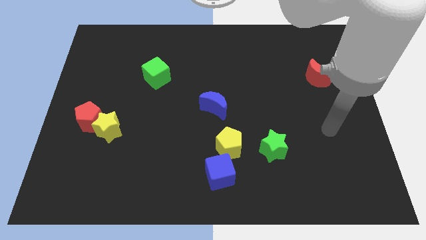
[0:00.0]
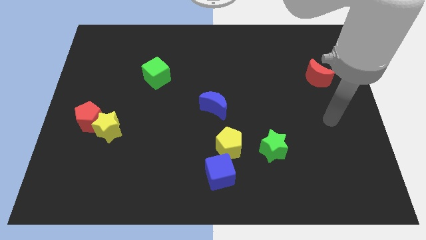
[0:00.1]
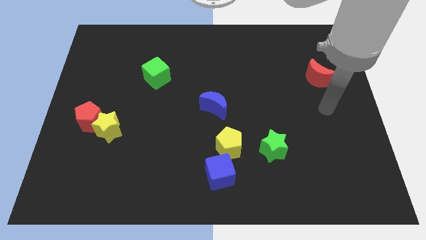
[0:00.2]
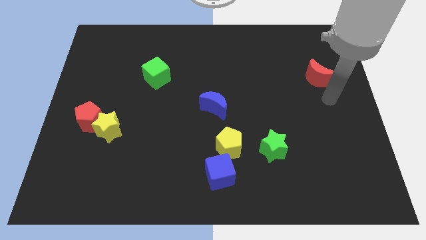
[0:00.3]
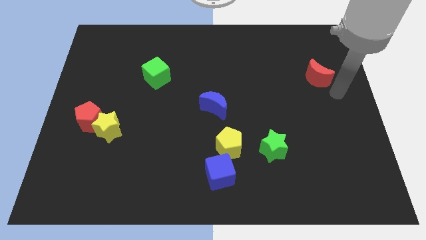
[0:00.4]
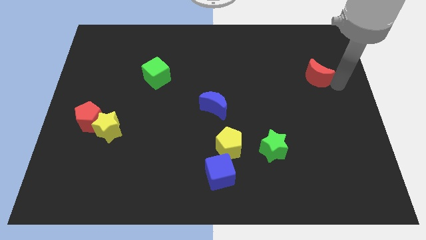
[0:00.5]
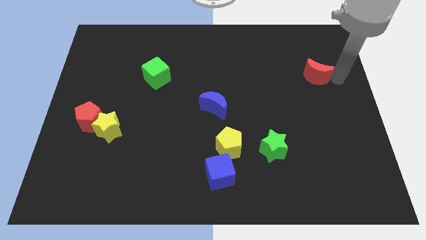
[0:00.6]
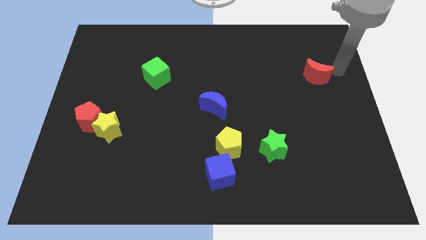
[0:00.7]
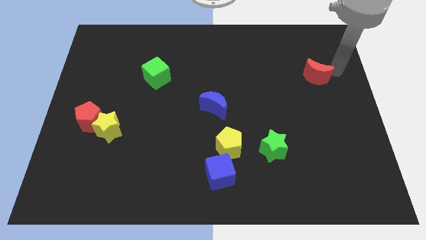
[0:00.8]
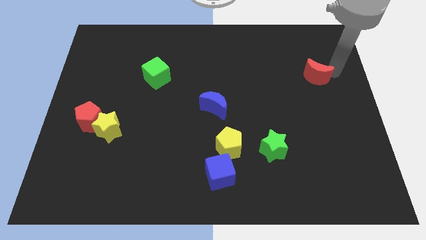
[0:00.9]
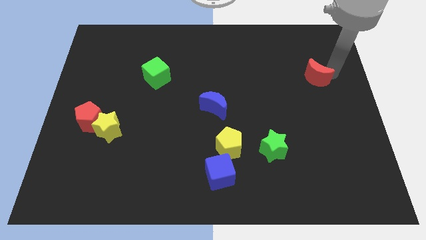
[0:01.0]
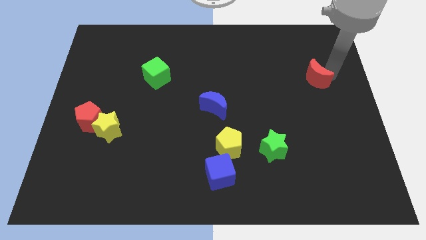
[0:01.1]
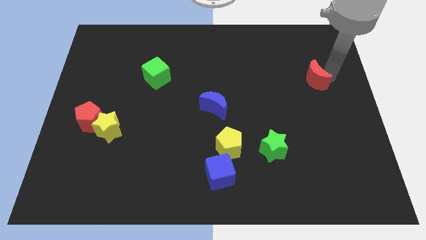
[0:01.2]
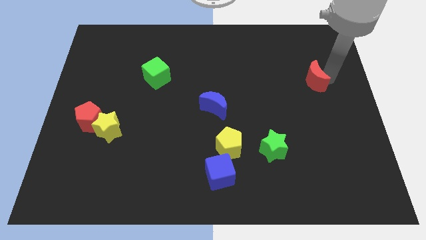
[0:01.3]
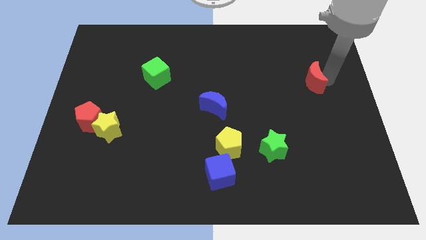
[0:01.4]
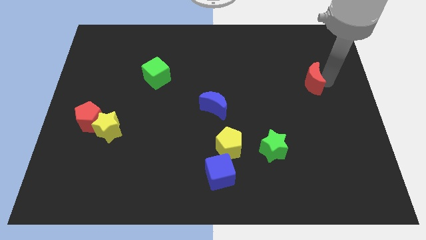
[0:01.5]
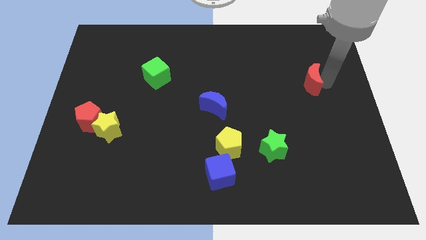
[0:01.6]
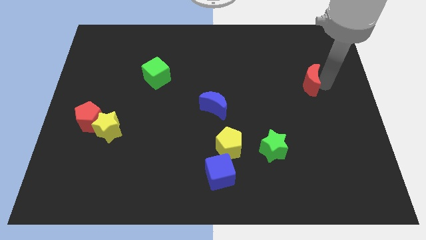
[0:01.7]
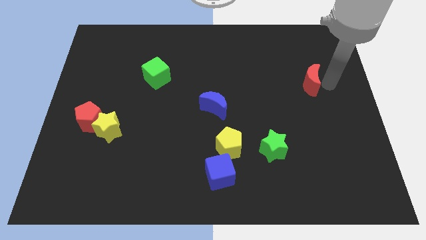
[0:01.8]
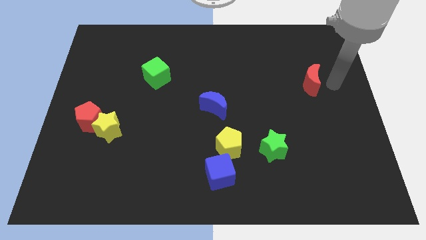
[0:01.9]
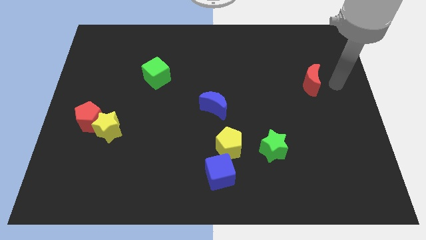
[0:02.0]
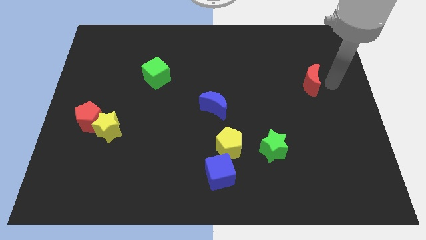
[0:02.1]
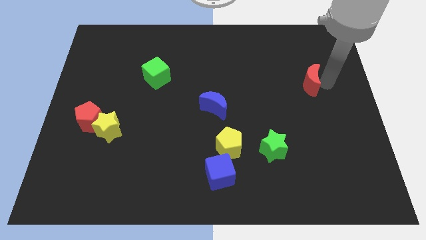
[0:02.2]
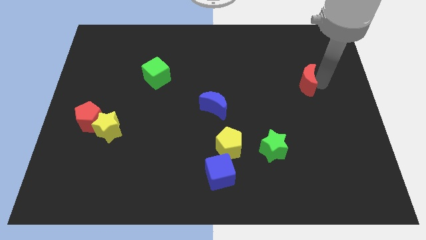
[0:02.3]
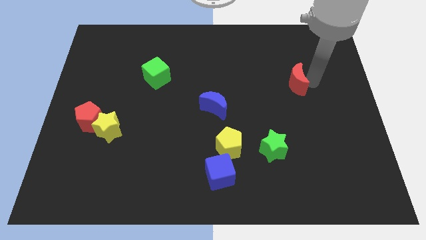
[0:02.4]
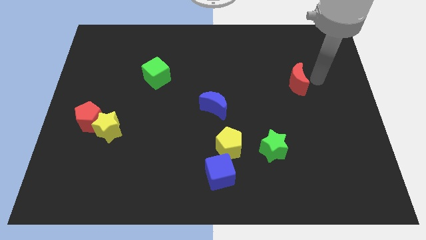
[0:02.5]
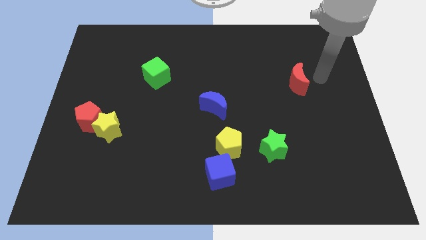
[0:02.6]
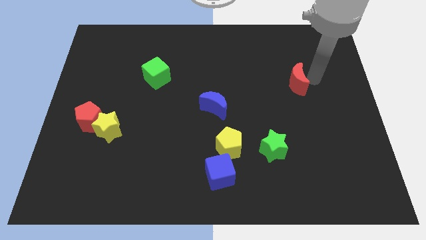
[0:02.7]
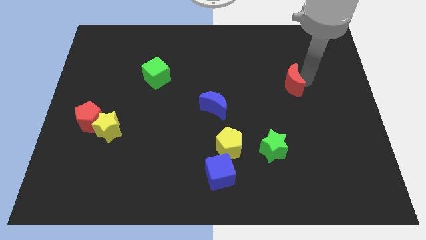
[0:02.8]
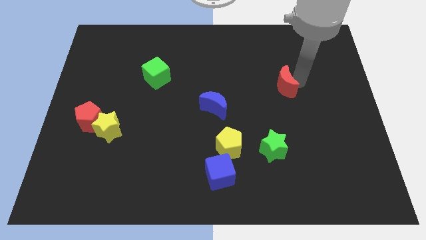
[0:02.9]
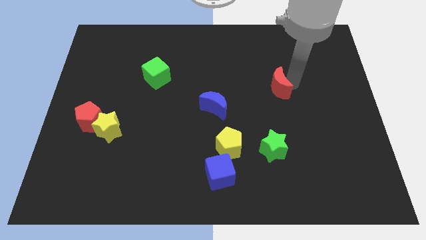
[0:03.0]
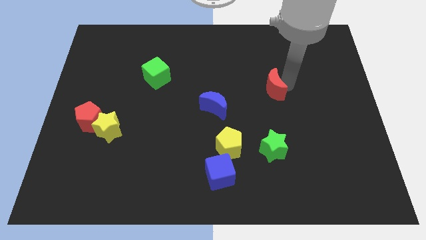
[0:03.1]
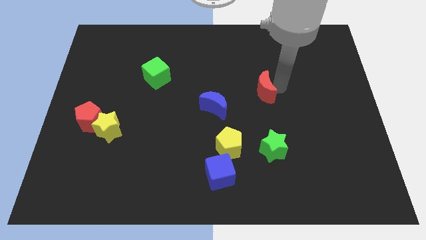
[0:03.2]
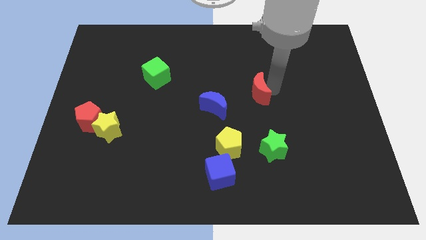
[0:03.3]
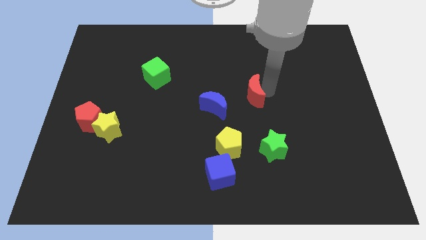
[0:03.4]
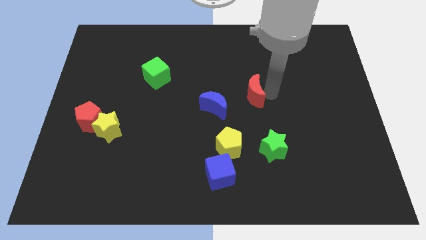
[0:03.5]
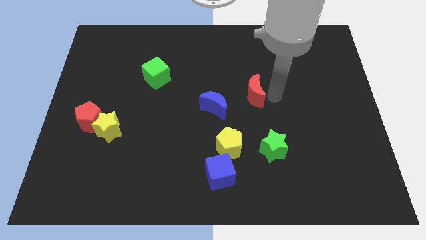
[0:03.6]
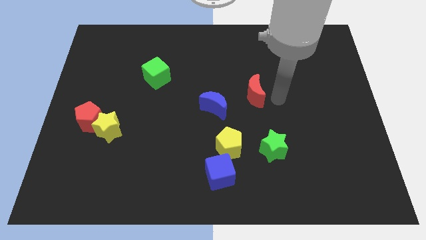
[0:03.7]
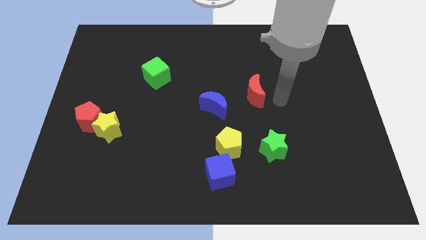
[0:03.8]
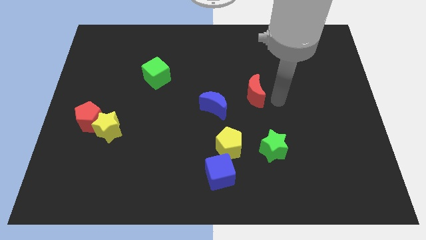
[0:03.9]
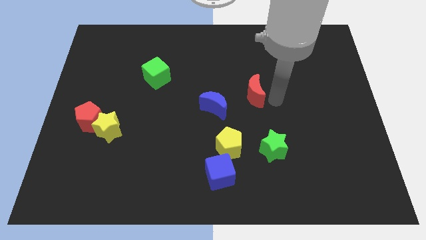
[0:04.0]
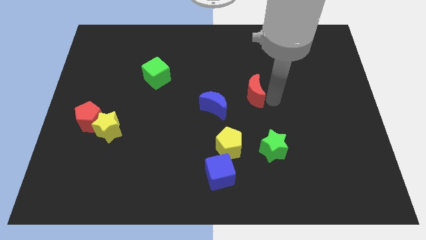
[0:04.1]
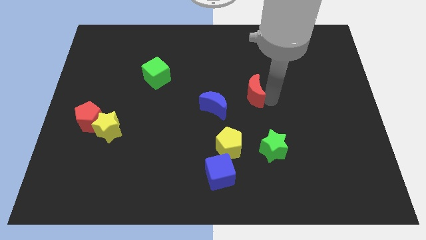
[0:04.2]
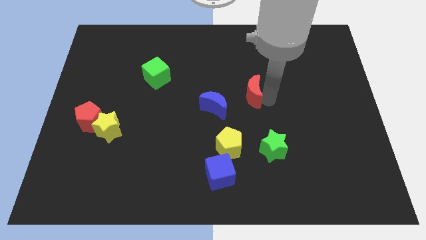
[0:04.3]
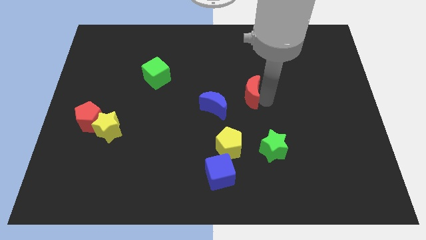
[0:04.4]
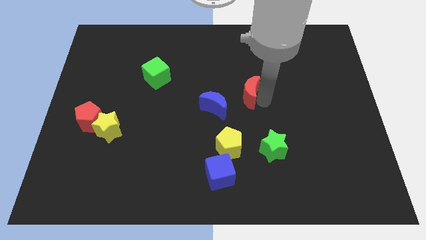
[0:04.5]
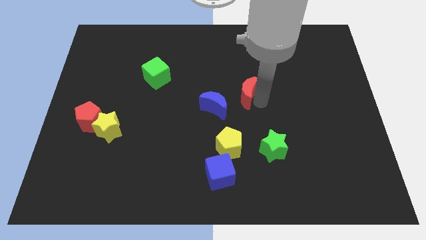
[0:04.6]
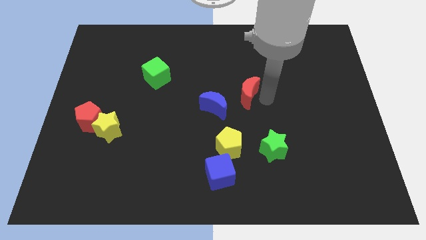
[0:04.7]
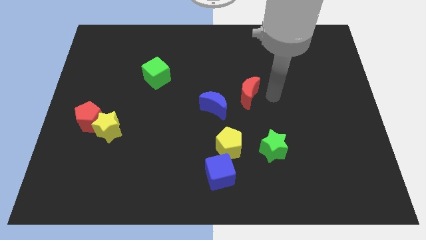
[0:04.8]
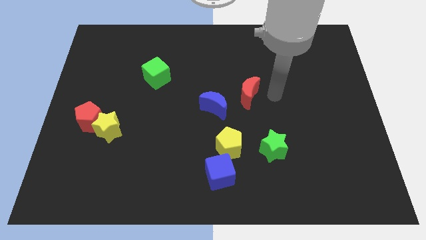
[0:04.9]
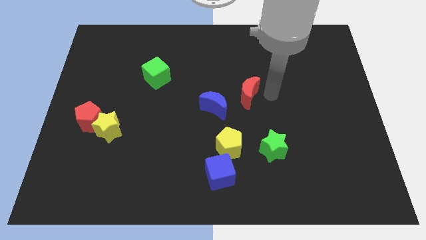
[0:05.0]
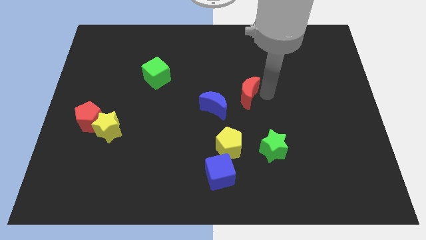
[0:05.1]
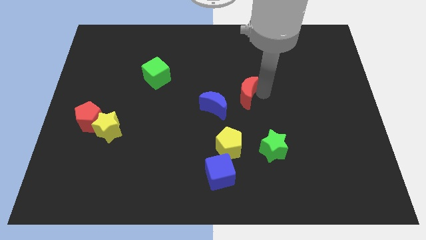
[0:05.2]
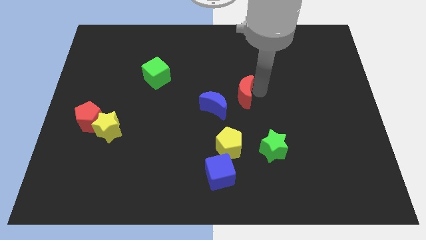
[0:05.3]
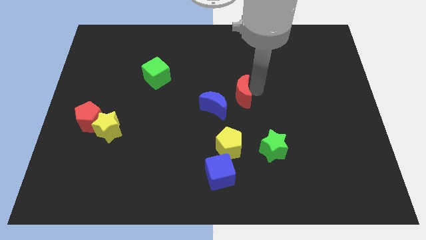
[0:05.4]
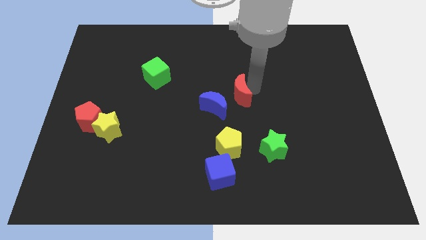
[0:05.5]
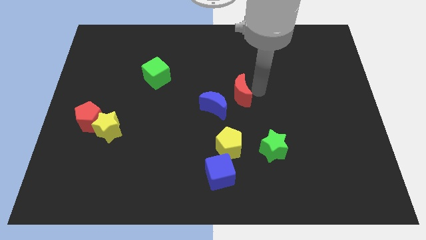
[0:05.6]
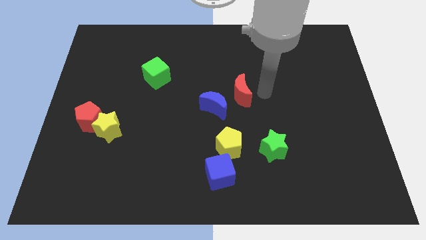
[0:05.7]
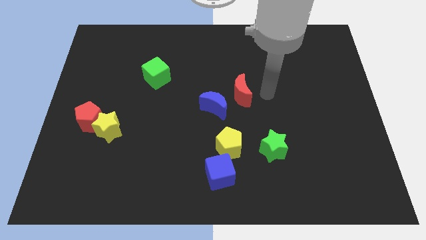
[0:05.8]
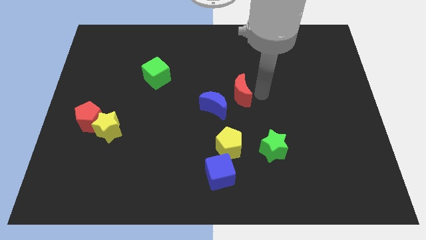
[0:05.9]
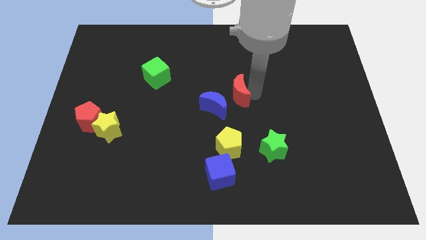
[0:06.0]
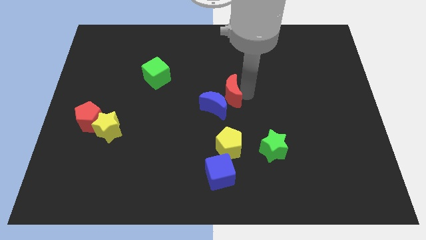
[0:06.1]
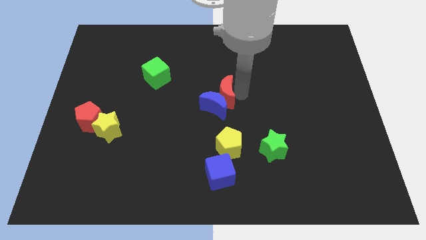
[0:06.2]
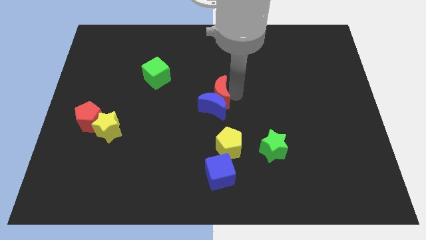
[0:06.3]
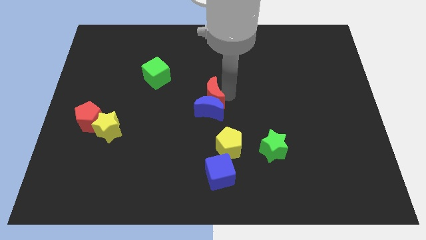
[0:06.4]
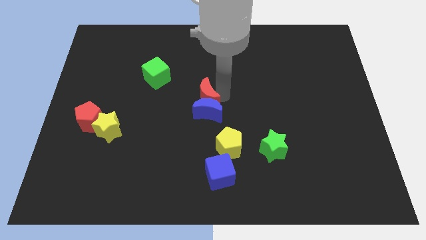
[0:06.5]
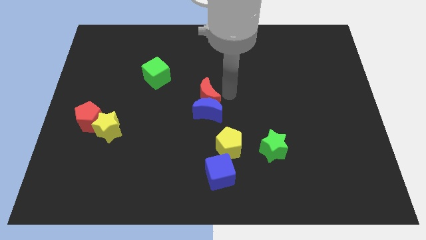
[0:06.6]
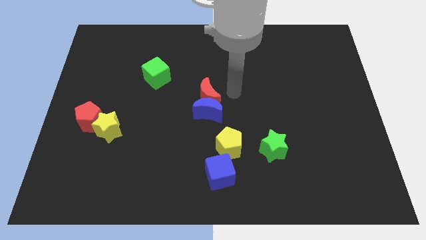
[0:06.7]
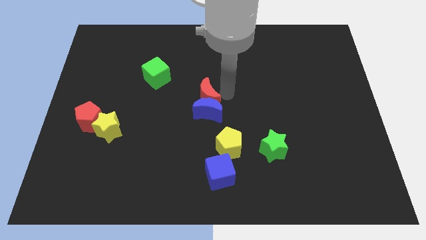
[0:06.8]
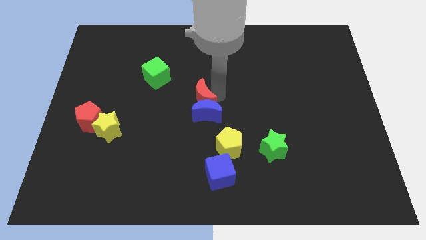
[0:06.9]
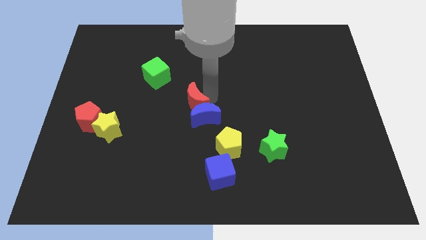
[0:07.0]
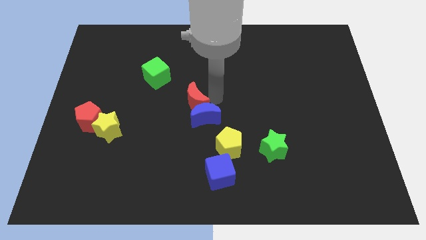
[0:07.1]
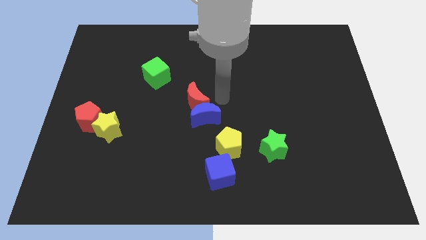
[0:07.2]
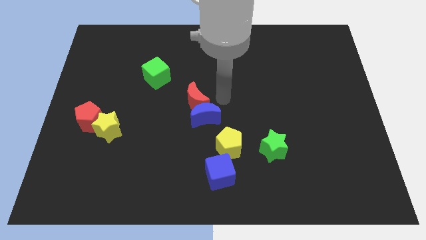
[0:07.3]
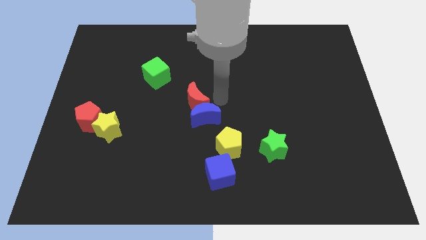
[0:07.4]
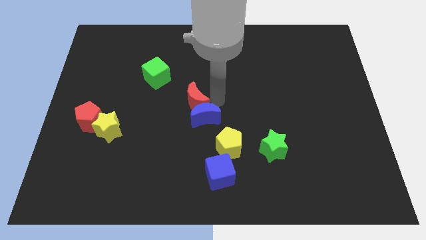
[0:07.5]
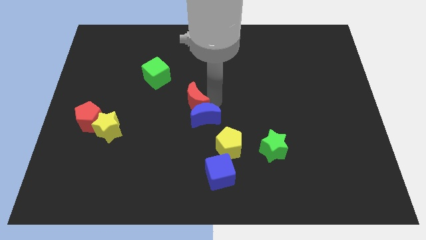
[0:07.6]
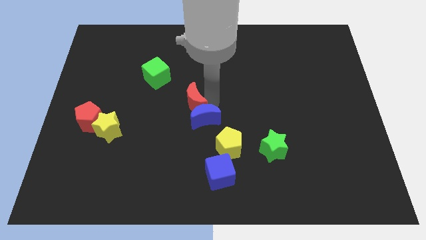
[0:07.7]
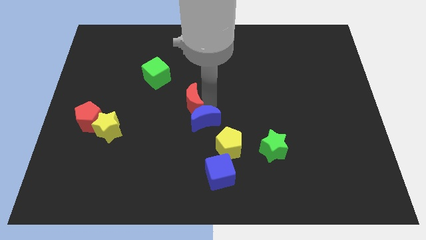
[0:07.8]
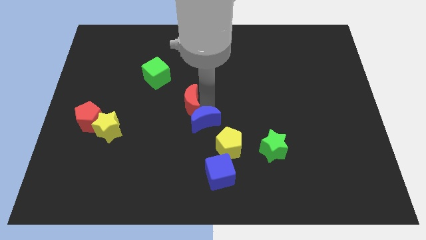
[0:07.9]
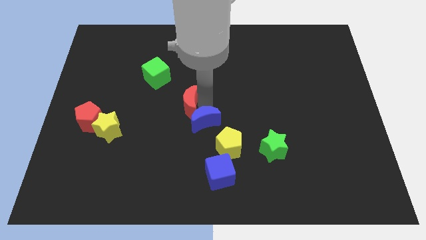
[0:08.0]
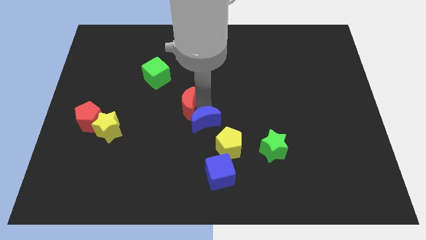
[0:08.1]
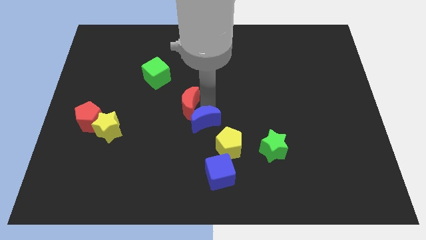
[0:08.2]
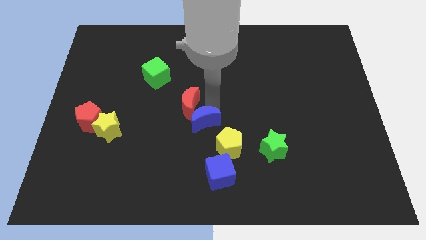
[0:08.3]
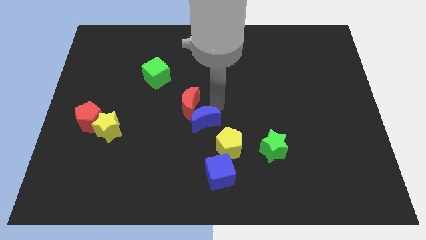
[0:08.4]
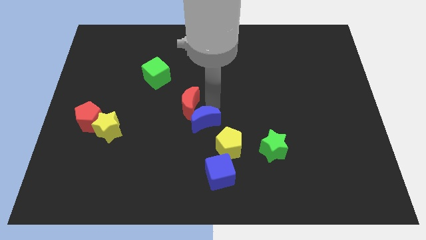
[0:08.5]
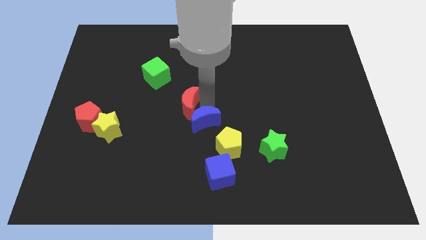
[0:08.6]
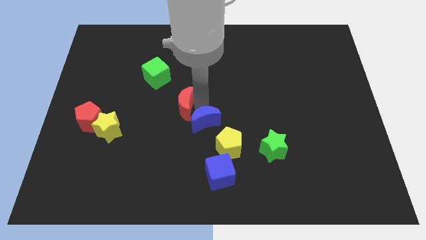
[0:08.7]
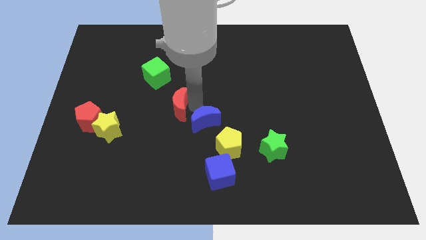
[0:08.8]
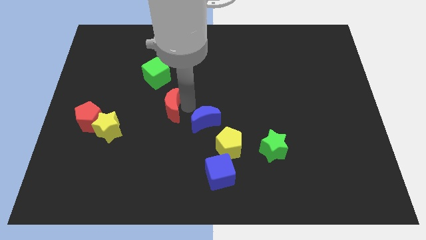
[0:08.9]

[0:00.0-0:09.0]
move the red moon to the bottom side of the green cube
